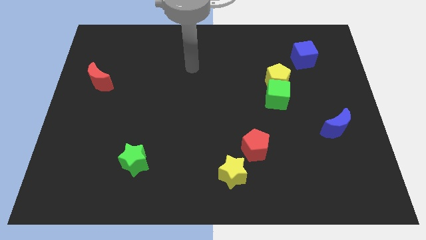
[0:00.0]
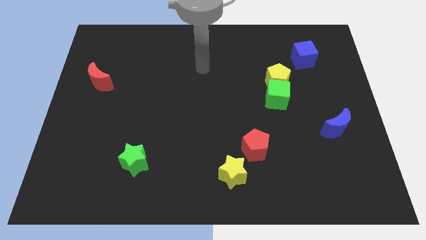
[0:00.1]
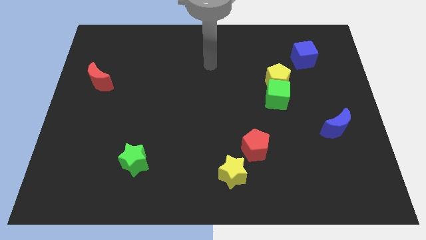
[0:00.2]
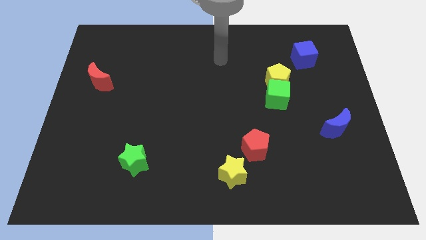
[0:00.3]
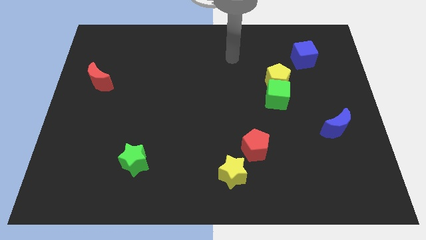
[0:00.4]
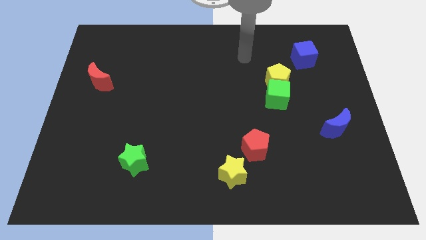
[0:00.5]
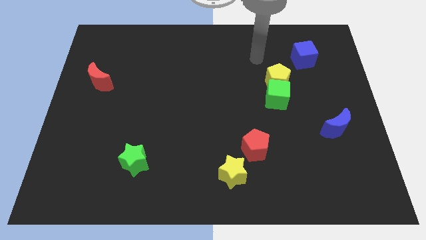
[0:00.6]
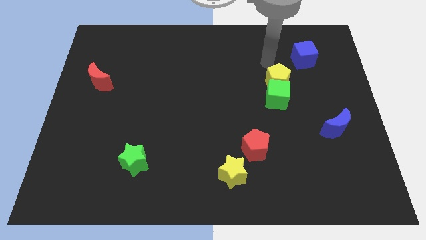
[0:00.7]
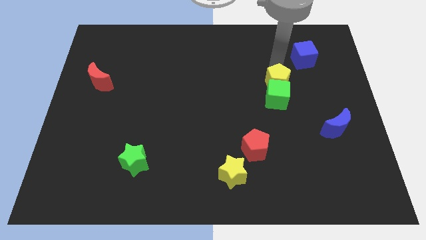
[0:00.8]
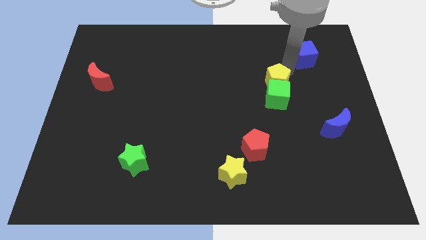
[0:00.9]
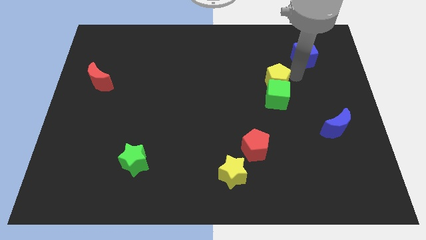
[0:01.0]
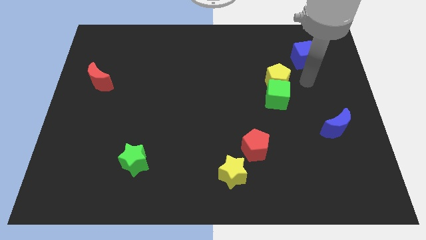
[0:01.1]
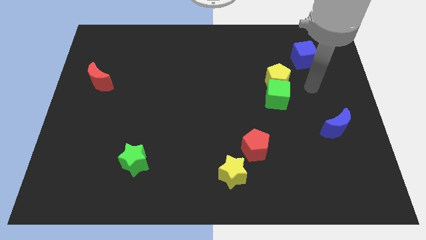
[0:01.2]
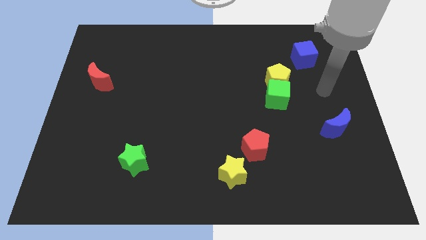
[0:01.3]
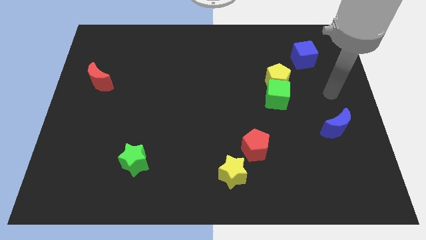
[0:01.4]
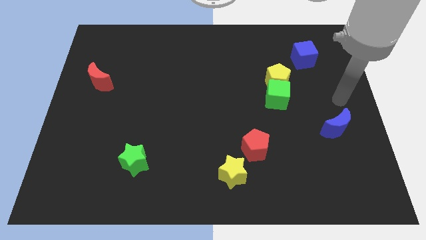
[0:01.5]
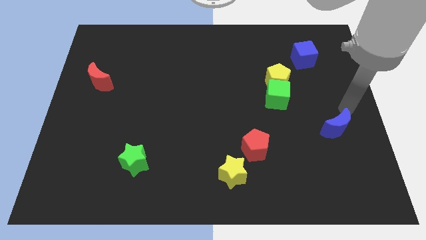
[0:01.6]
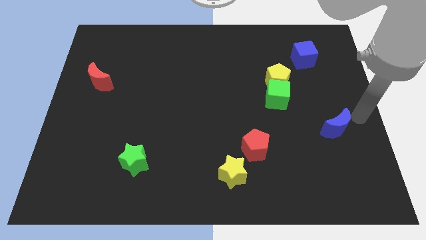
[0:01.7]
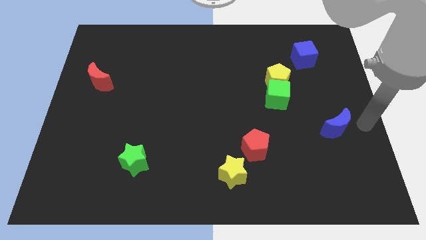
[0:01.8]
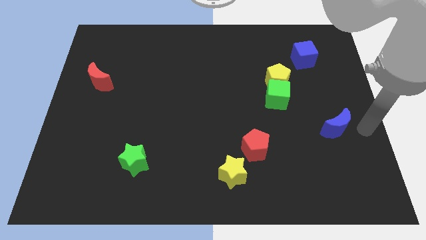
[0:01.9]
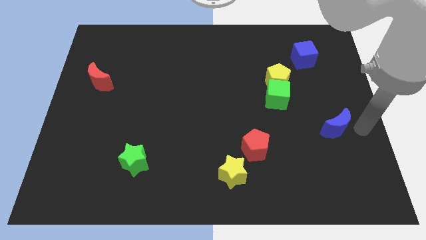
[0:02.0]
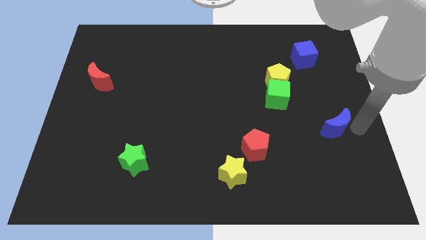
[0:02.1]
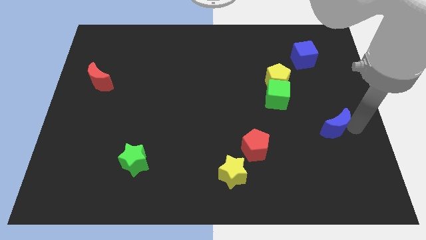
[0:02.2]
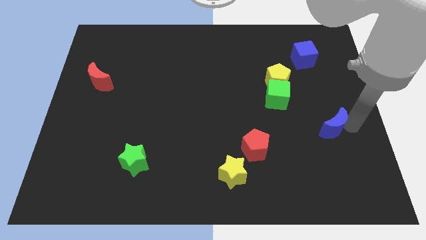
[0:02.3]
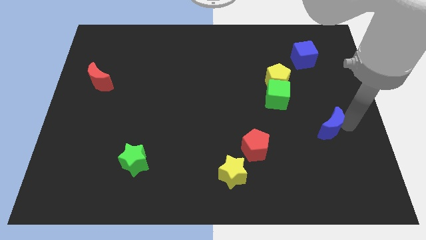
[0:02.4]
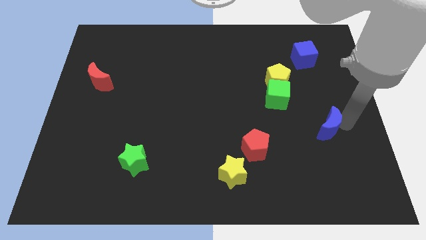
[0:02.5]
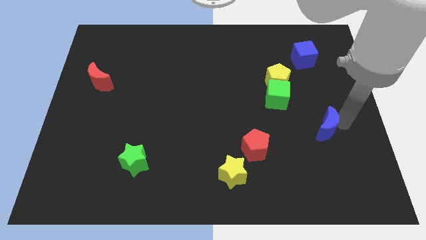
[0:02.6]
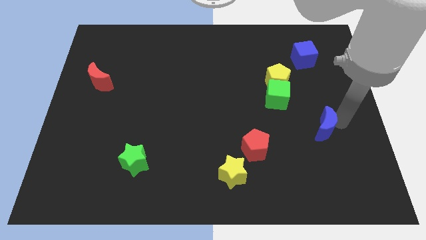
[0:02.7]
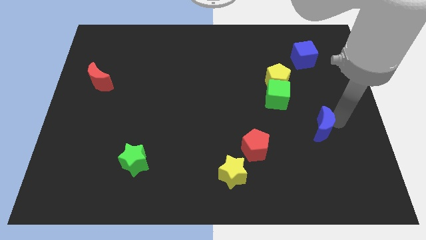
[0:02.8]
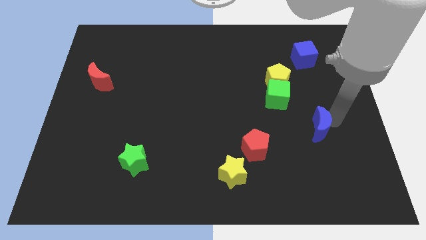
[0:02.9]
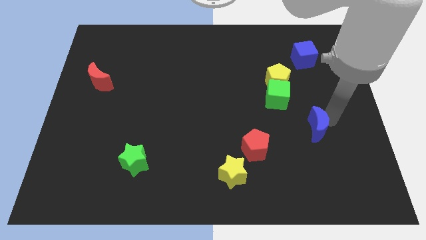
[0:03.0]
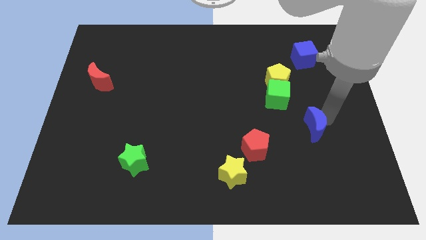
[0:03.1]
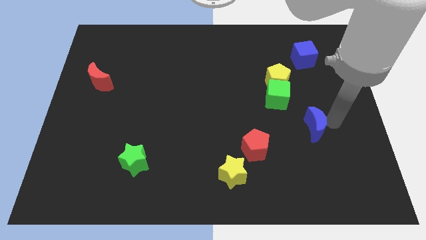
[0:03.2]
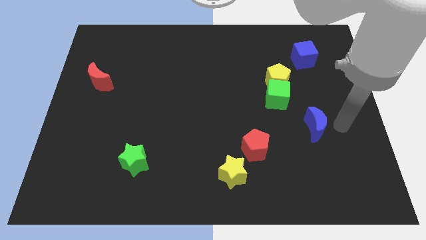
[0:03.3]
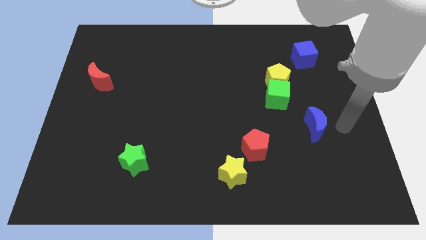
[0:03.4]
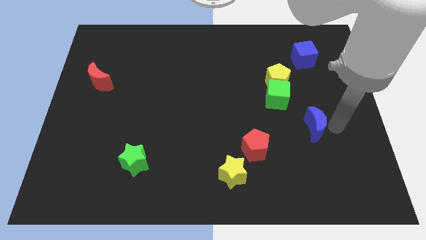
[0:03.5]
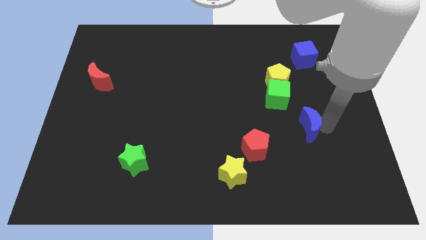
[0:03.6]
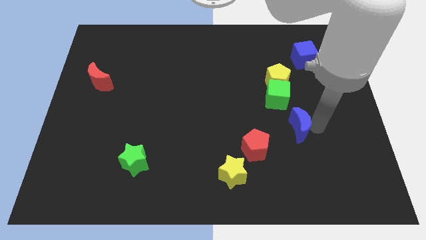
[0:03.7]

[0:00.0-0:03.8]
push the blue moon to the left a bit

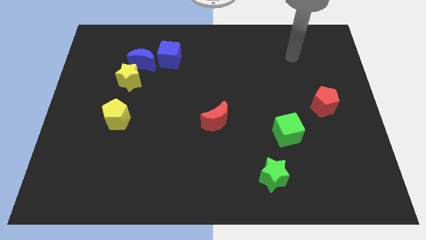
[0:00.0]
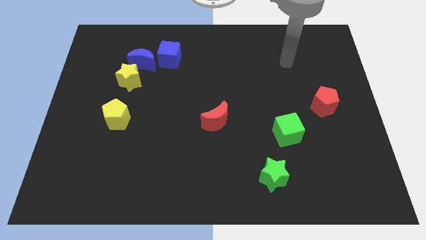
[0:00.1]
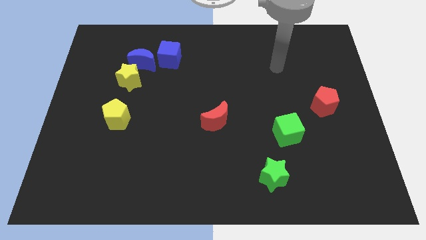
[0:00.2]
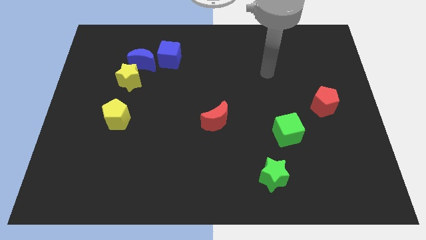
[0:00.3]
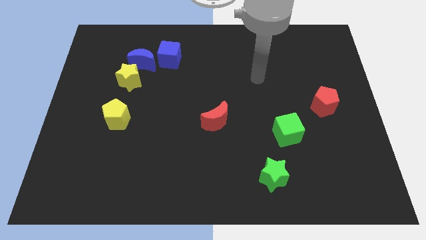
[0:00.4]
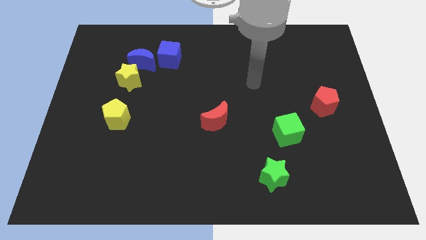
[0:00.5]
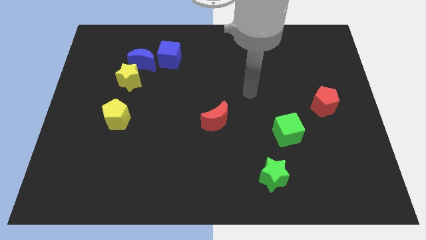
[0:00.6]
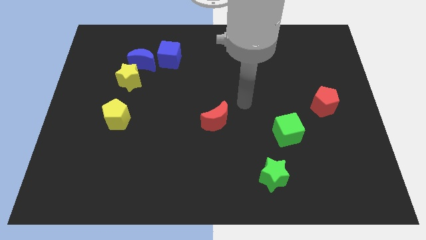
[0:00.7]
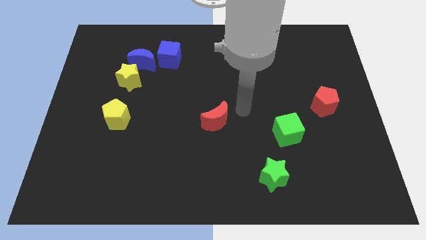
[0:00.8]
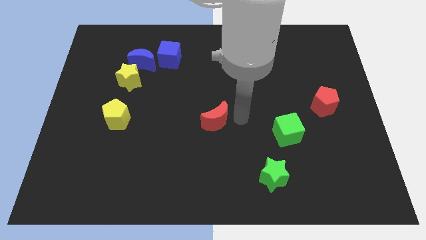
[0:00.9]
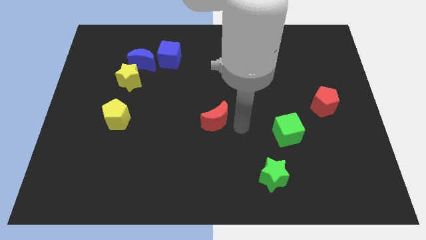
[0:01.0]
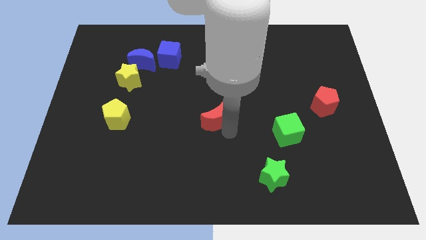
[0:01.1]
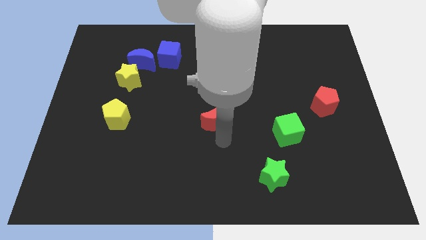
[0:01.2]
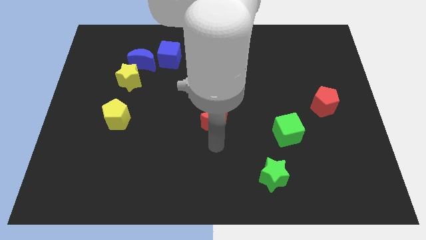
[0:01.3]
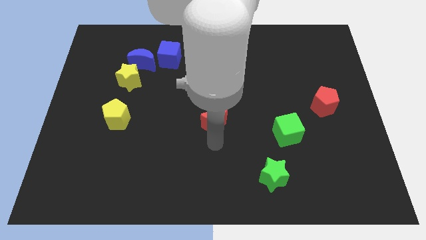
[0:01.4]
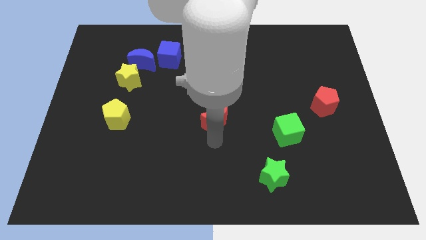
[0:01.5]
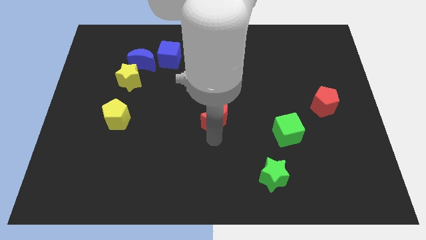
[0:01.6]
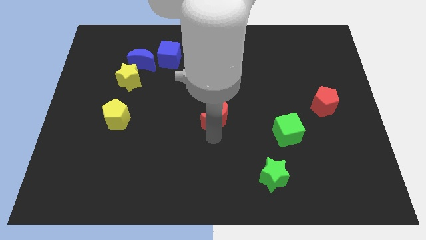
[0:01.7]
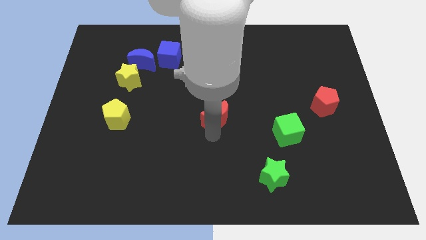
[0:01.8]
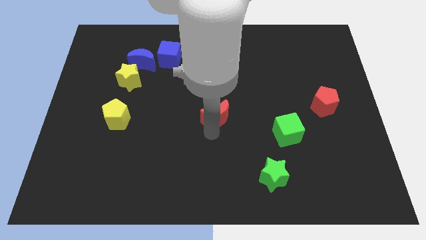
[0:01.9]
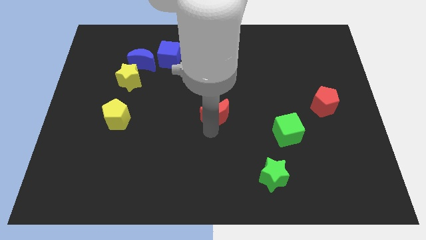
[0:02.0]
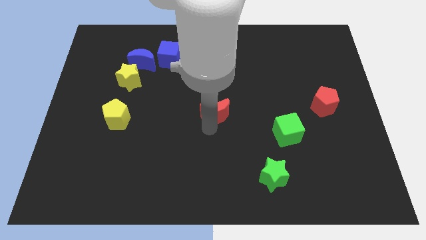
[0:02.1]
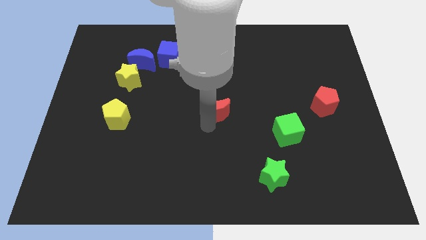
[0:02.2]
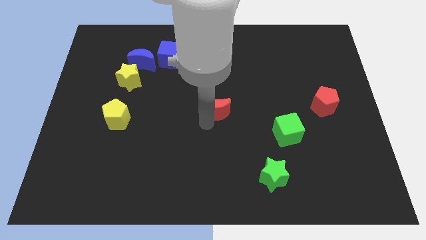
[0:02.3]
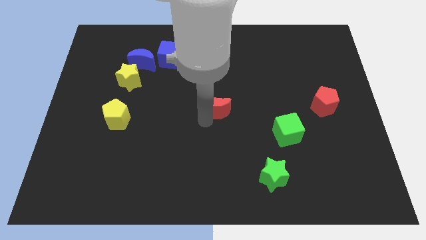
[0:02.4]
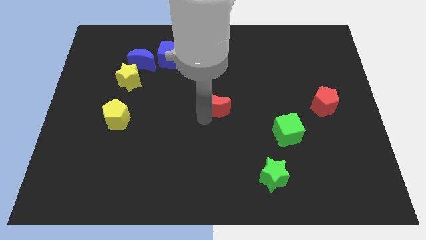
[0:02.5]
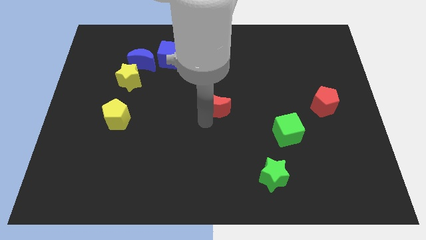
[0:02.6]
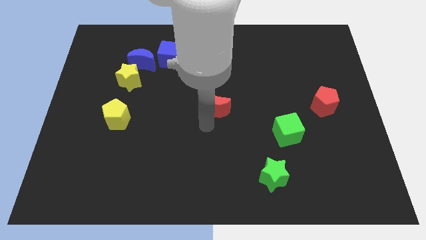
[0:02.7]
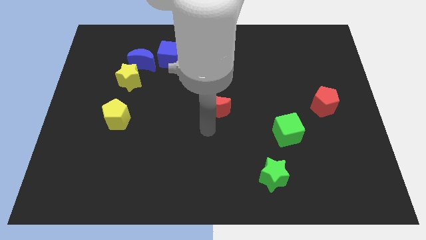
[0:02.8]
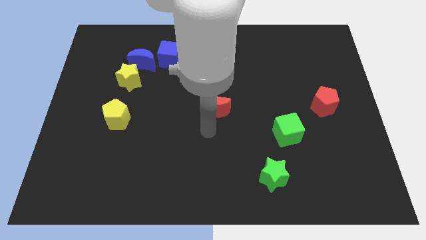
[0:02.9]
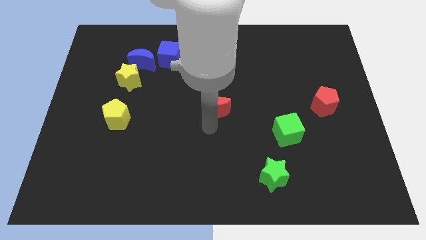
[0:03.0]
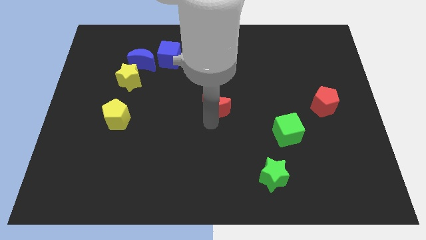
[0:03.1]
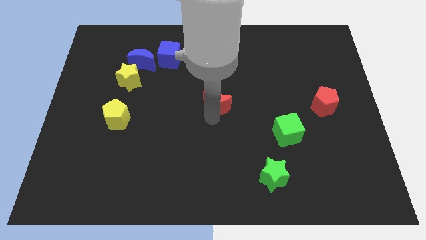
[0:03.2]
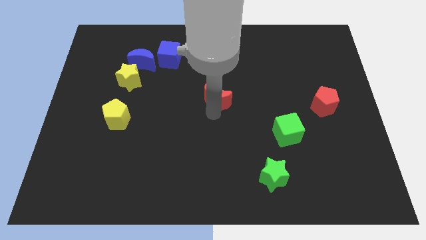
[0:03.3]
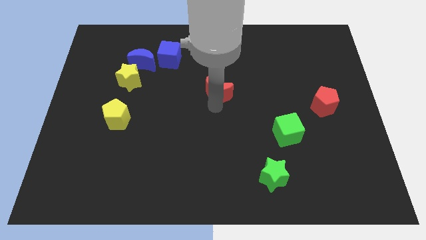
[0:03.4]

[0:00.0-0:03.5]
slightly push the red moon upwards

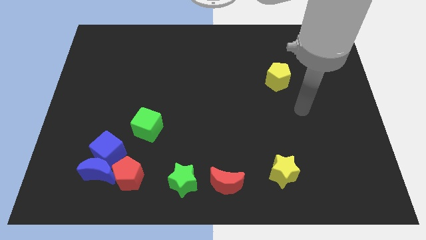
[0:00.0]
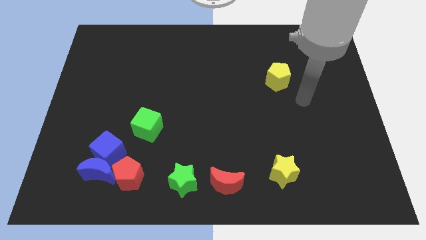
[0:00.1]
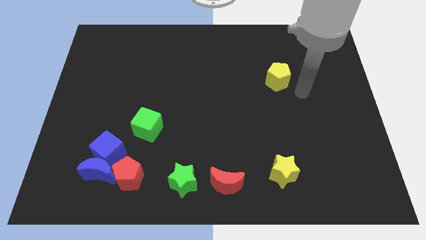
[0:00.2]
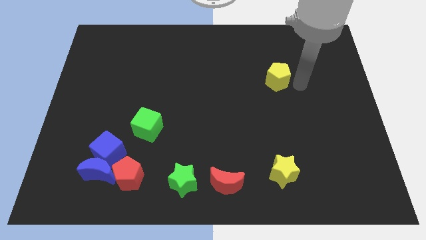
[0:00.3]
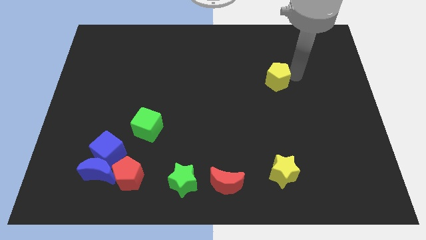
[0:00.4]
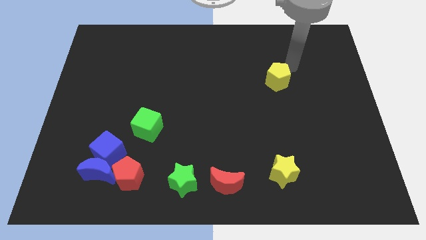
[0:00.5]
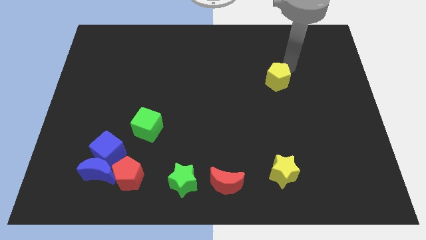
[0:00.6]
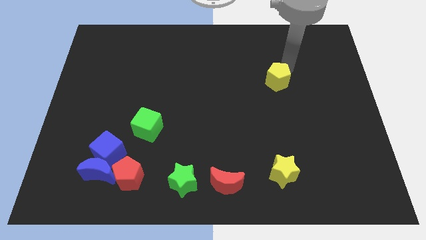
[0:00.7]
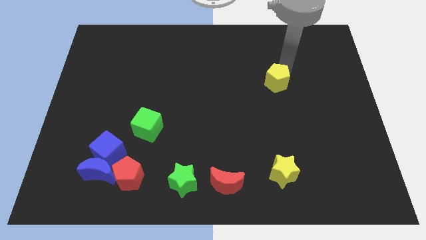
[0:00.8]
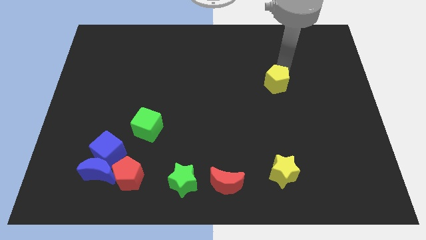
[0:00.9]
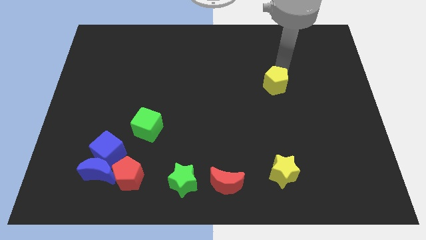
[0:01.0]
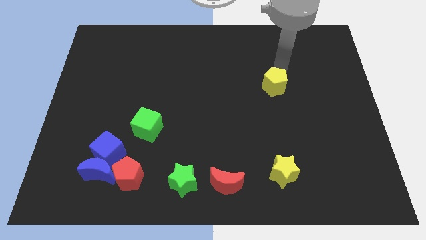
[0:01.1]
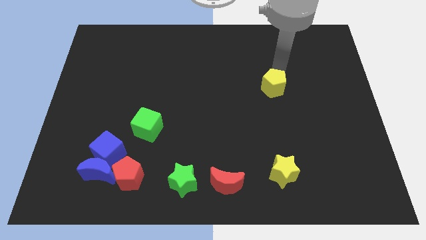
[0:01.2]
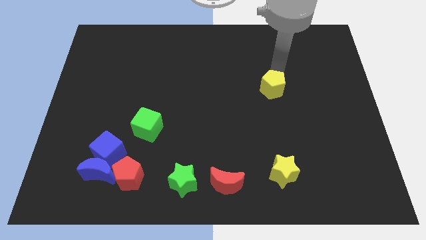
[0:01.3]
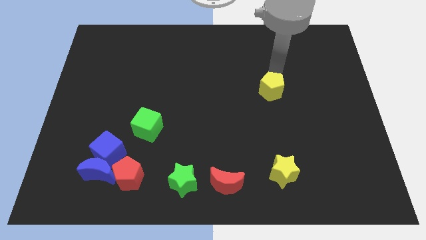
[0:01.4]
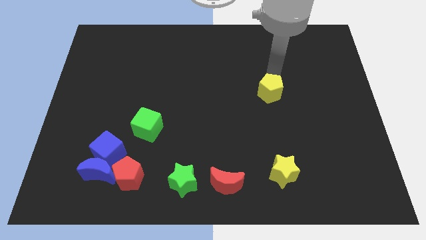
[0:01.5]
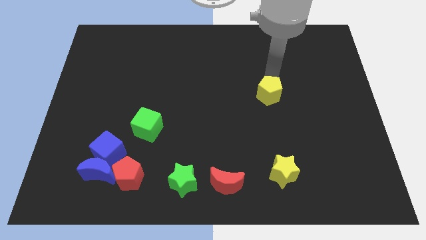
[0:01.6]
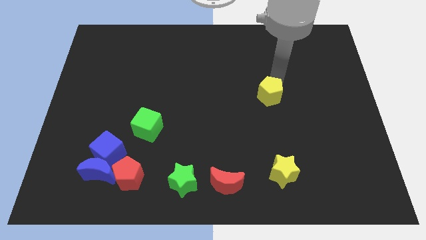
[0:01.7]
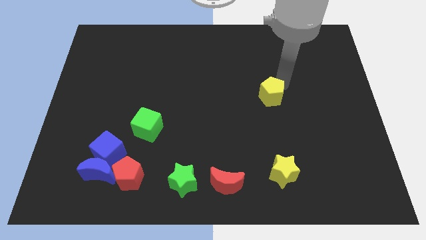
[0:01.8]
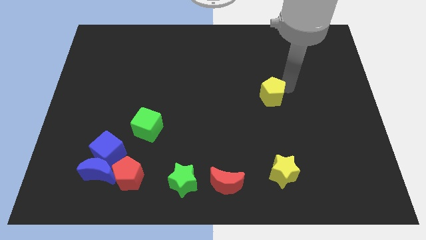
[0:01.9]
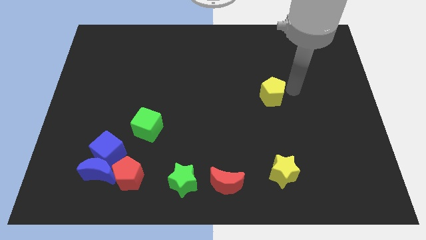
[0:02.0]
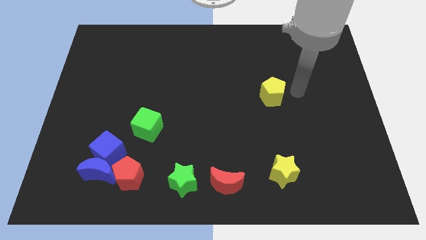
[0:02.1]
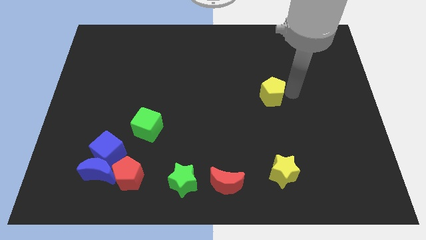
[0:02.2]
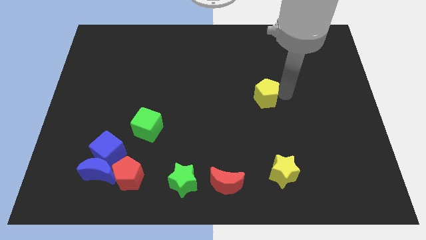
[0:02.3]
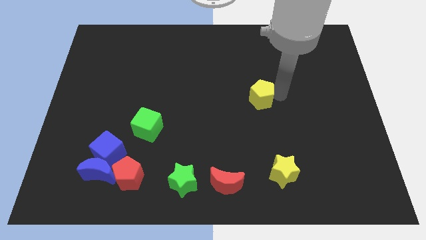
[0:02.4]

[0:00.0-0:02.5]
slightly slide the yellow pentagon downwards and left
